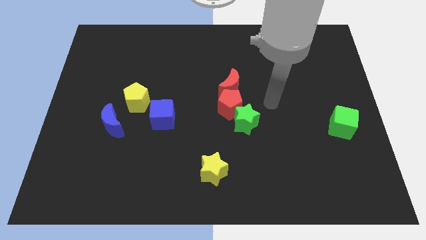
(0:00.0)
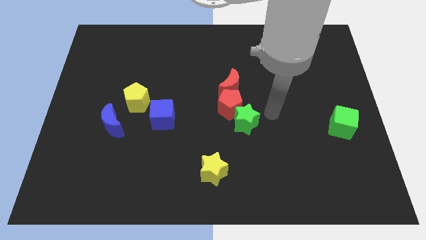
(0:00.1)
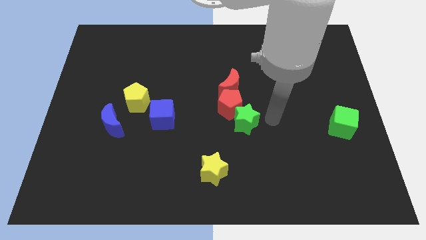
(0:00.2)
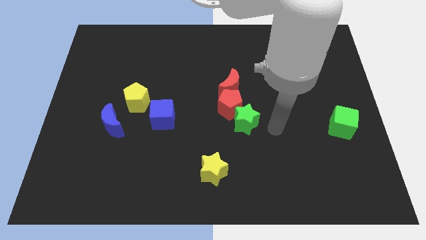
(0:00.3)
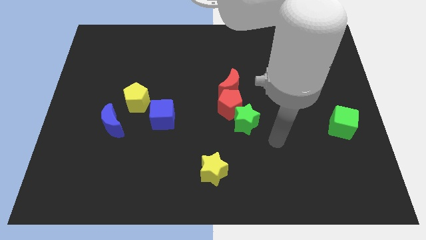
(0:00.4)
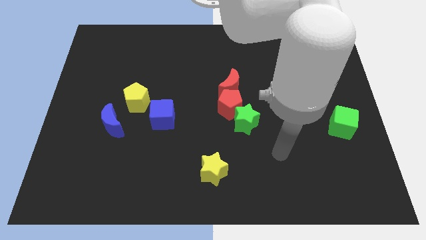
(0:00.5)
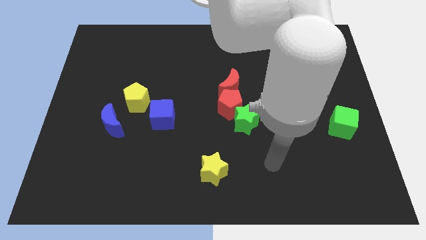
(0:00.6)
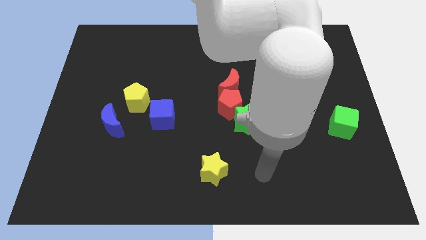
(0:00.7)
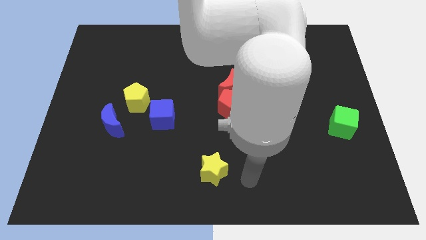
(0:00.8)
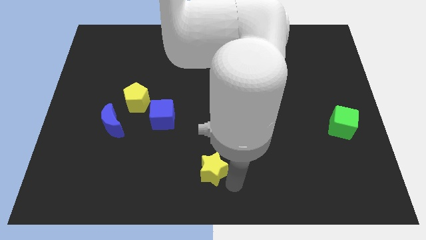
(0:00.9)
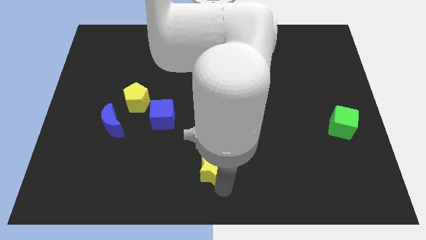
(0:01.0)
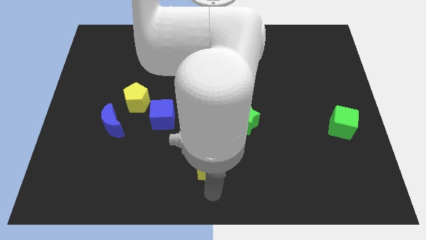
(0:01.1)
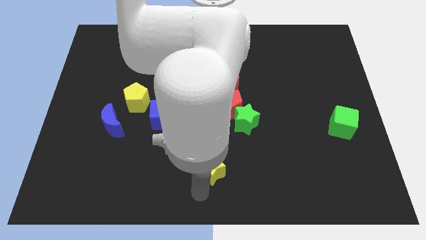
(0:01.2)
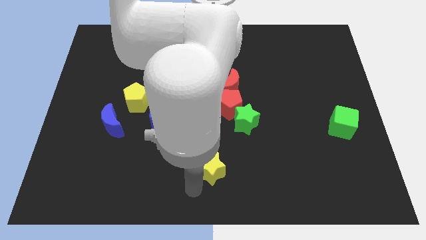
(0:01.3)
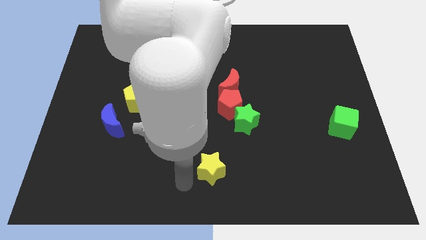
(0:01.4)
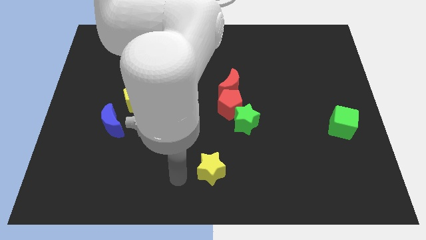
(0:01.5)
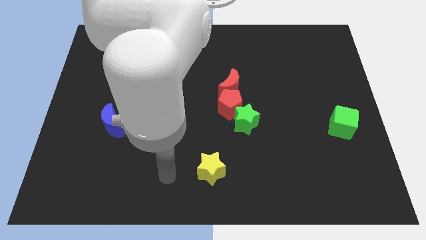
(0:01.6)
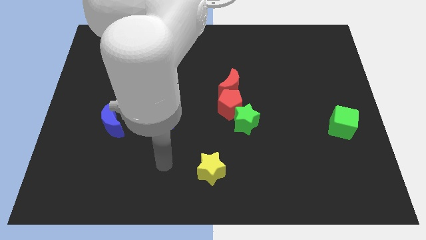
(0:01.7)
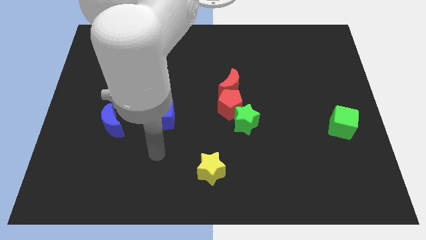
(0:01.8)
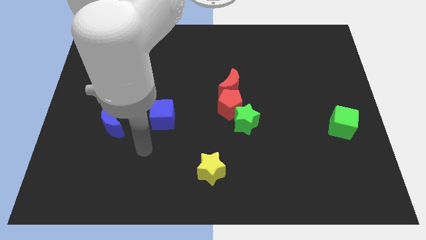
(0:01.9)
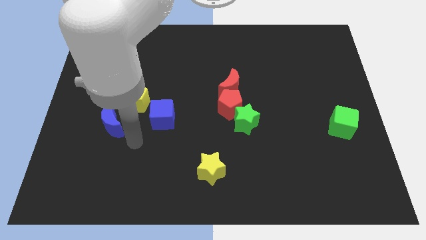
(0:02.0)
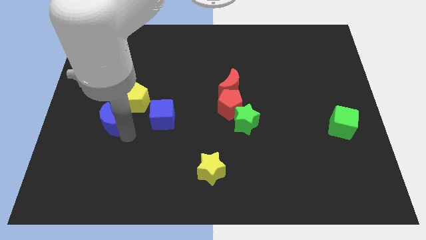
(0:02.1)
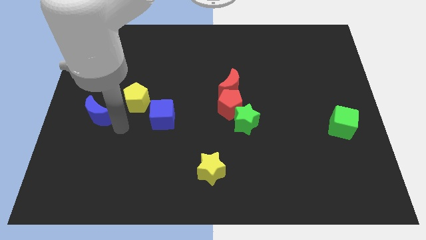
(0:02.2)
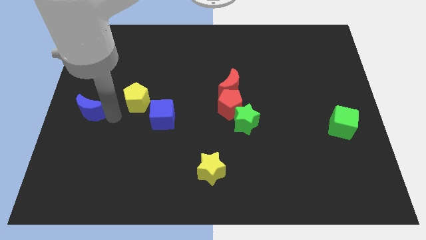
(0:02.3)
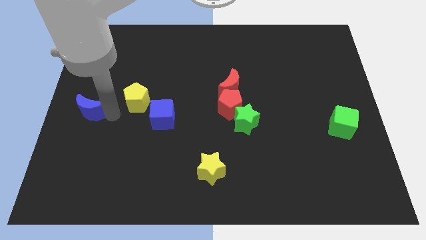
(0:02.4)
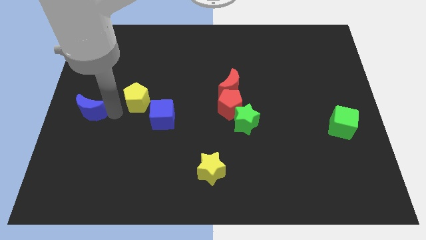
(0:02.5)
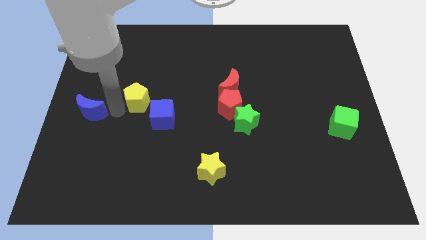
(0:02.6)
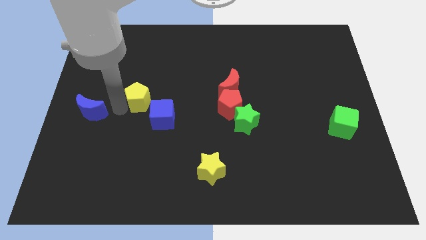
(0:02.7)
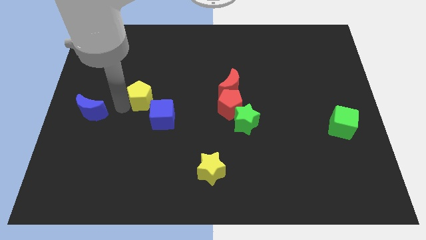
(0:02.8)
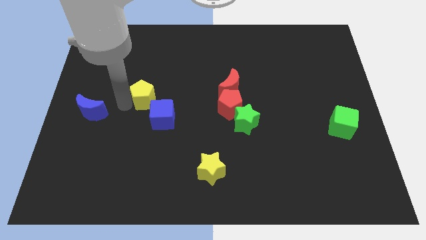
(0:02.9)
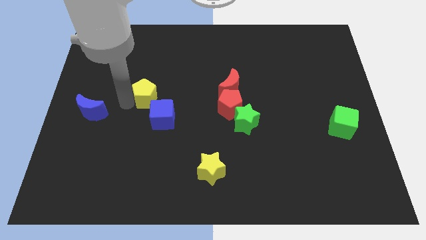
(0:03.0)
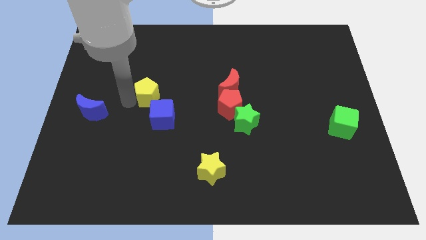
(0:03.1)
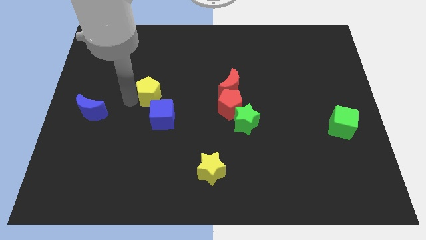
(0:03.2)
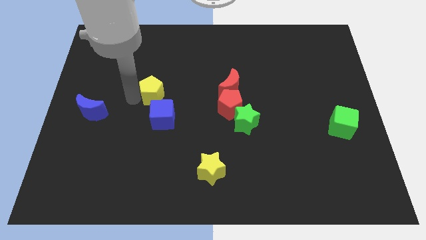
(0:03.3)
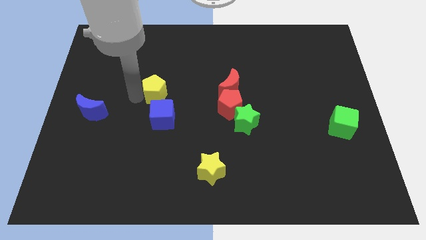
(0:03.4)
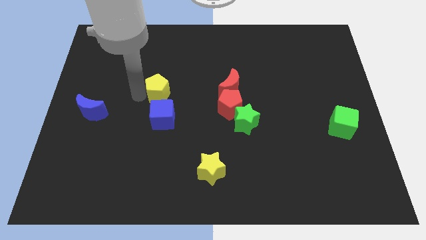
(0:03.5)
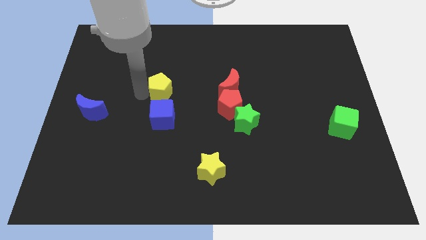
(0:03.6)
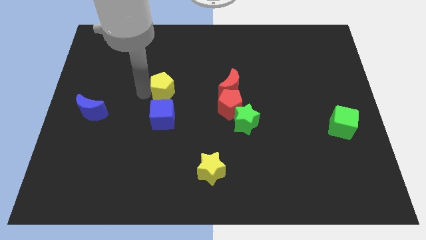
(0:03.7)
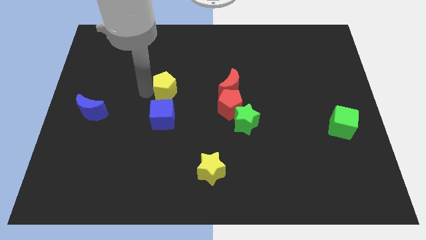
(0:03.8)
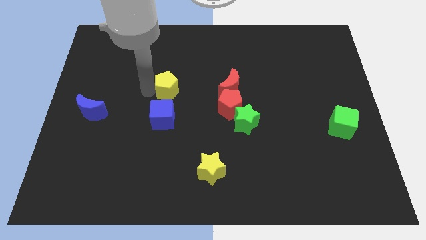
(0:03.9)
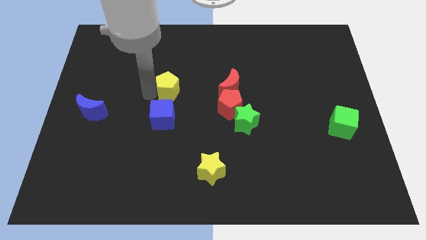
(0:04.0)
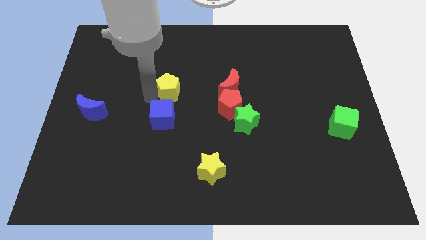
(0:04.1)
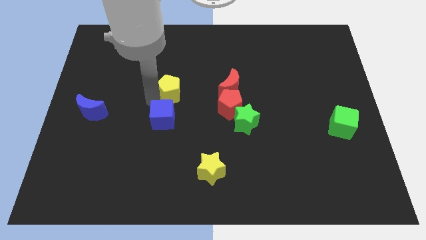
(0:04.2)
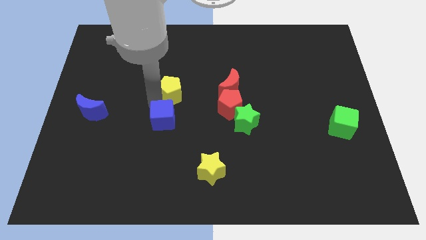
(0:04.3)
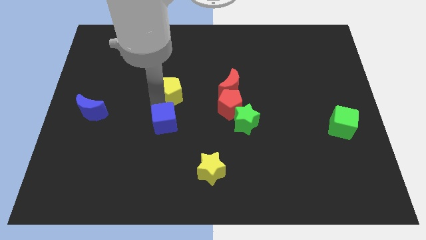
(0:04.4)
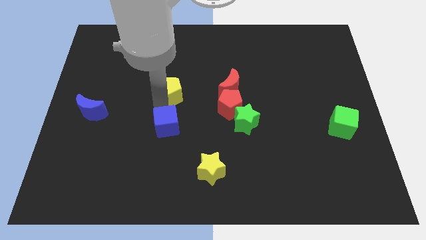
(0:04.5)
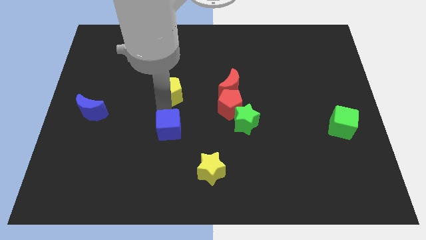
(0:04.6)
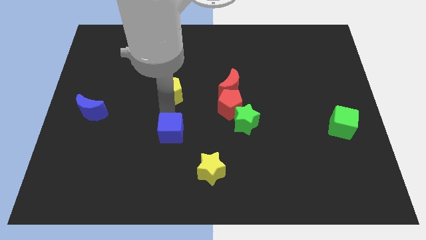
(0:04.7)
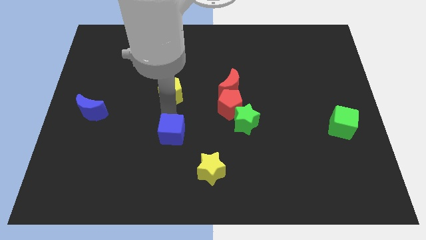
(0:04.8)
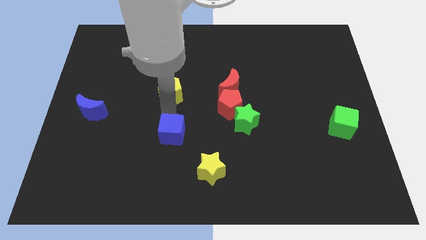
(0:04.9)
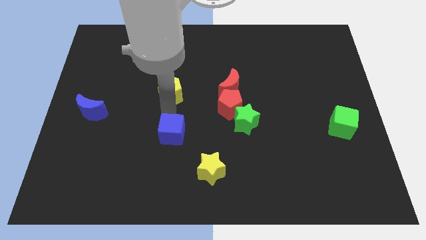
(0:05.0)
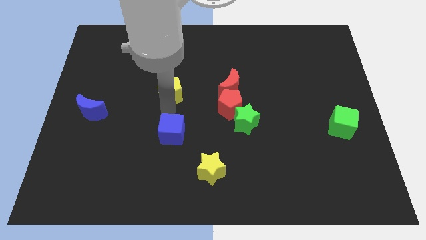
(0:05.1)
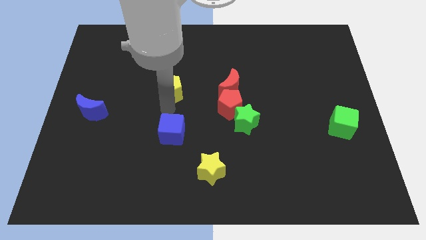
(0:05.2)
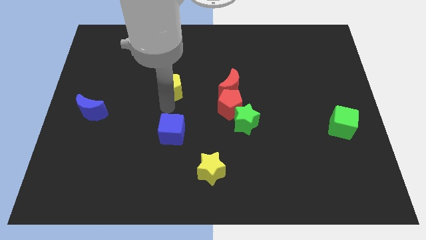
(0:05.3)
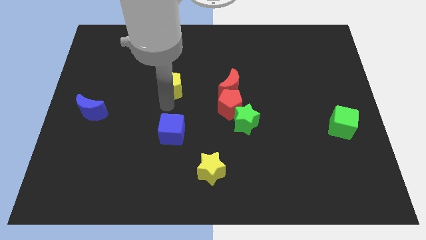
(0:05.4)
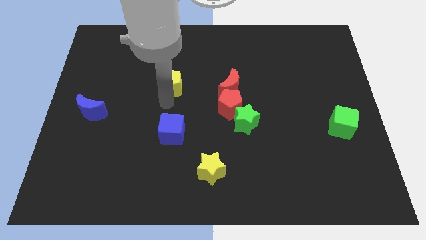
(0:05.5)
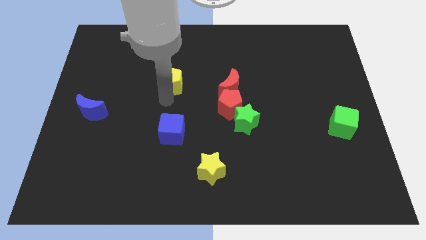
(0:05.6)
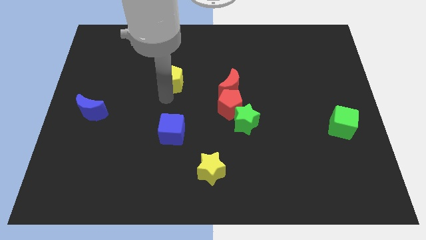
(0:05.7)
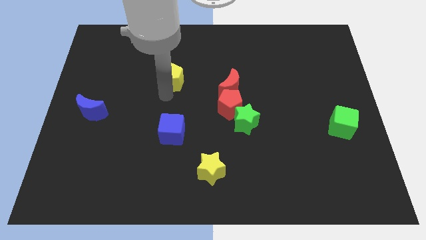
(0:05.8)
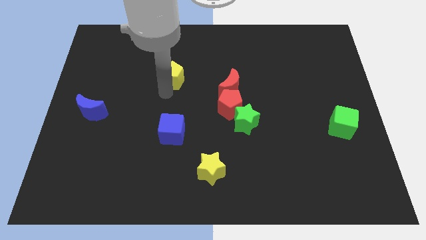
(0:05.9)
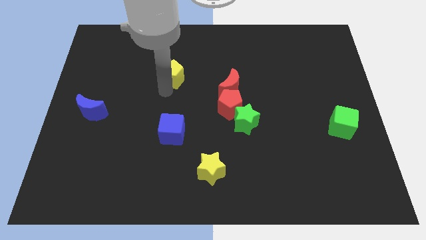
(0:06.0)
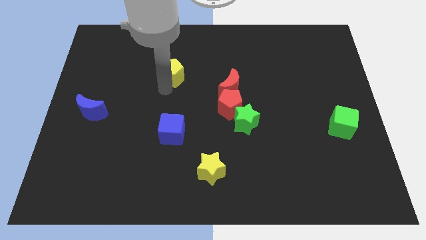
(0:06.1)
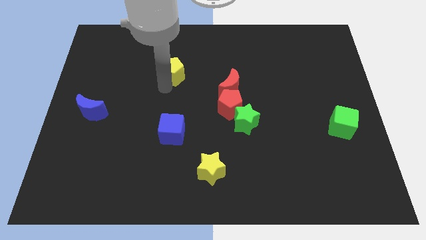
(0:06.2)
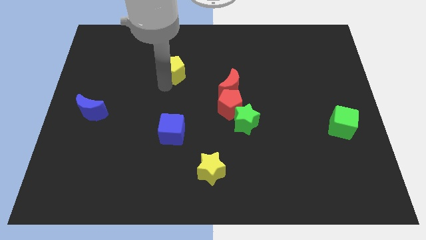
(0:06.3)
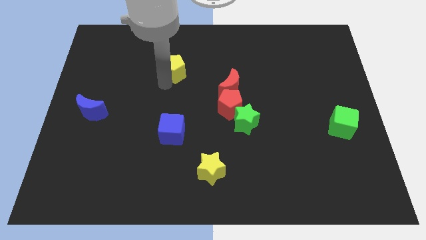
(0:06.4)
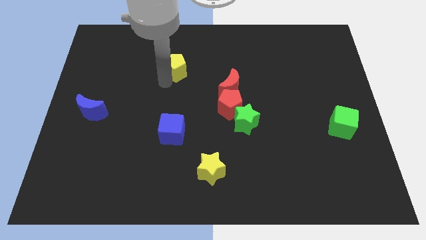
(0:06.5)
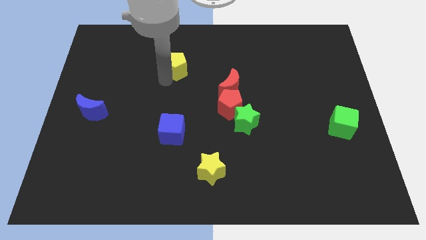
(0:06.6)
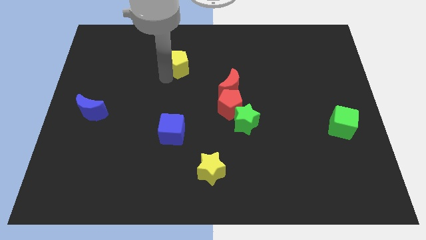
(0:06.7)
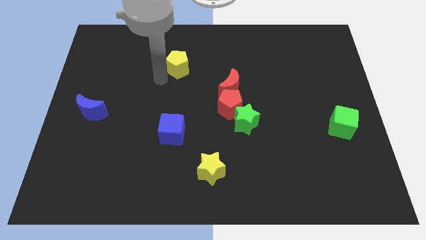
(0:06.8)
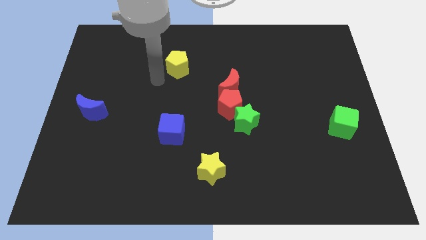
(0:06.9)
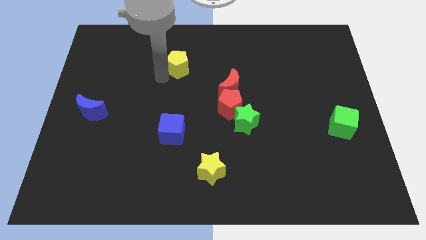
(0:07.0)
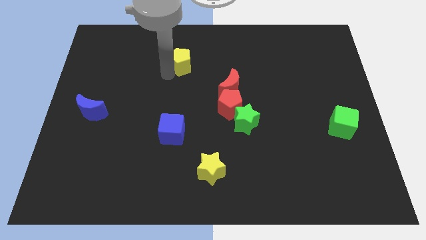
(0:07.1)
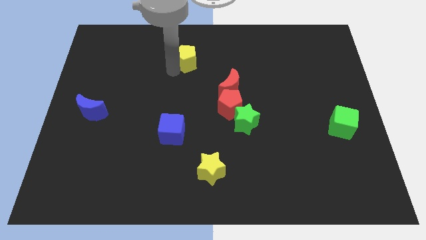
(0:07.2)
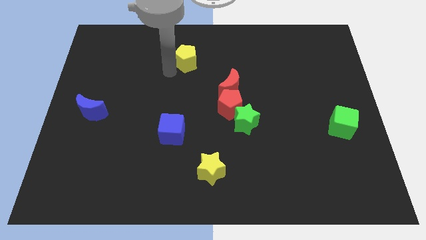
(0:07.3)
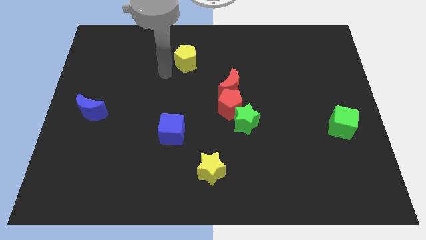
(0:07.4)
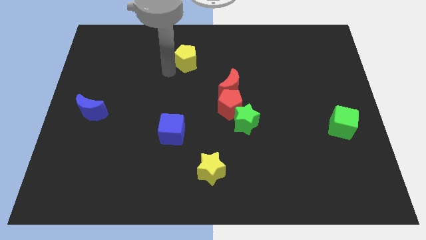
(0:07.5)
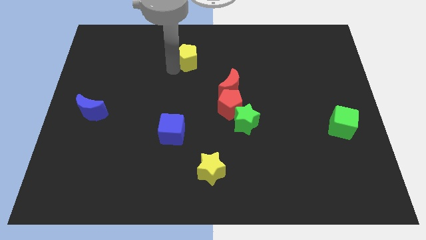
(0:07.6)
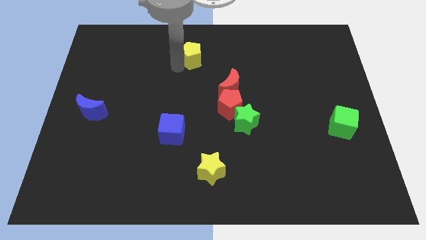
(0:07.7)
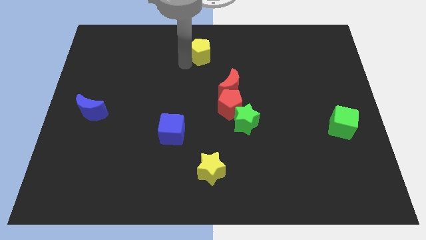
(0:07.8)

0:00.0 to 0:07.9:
put the yellow pentagon to the towards your base
